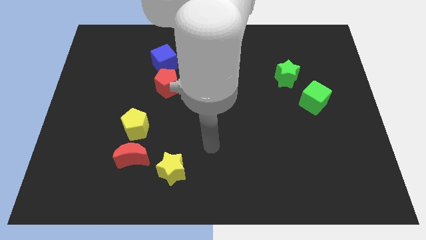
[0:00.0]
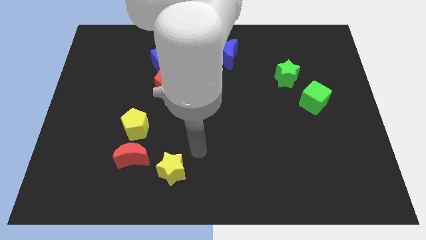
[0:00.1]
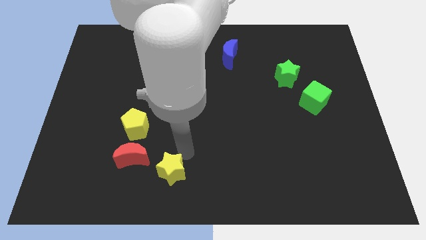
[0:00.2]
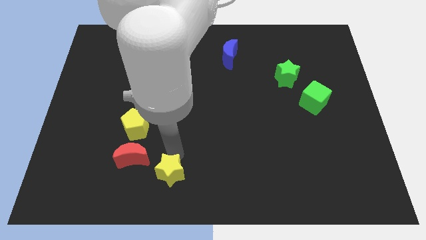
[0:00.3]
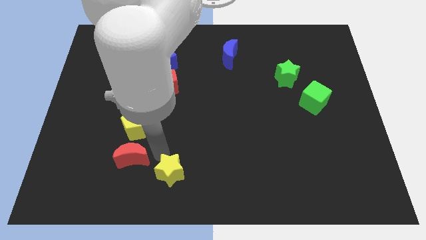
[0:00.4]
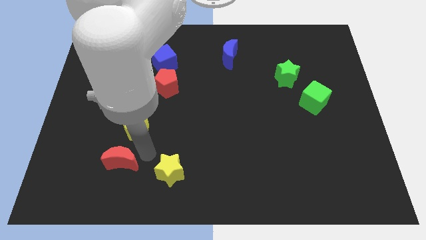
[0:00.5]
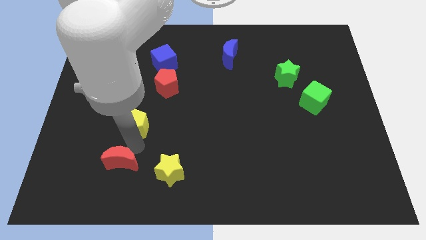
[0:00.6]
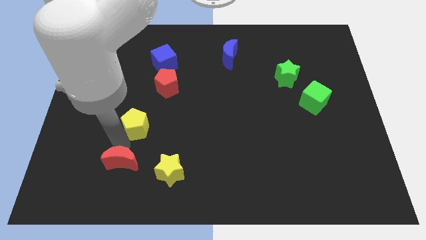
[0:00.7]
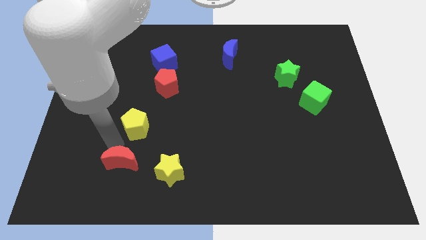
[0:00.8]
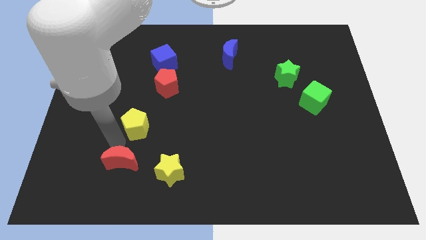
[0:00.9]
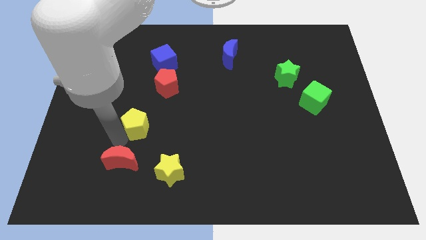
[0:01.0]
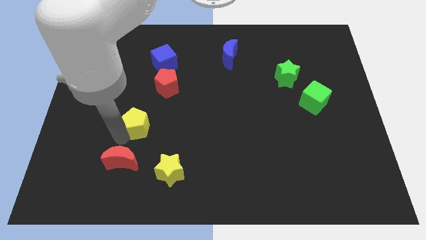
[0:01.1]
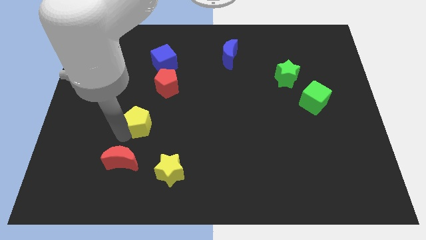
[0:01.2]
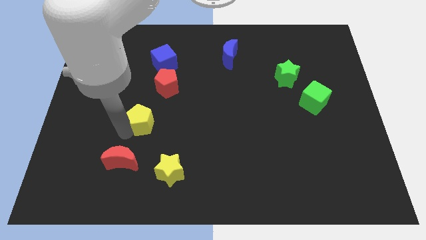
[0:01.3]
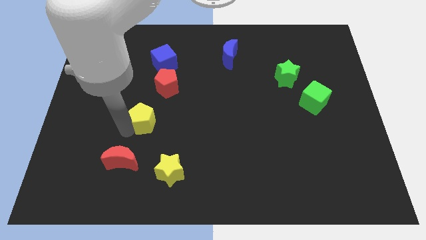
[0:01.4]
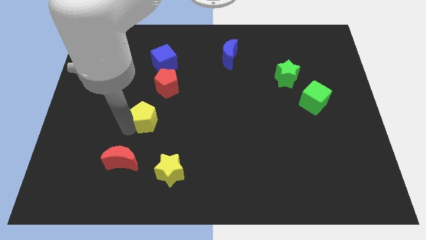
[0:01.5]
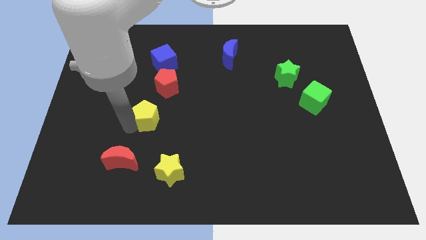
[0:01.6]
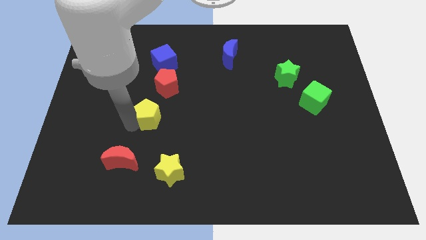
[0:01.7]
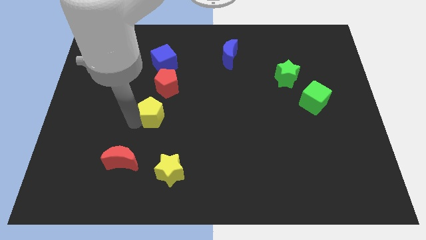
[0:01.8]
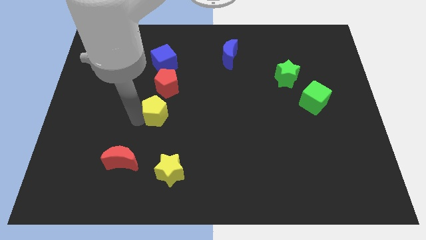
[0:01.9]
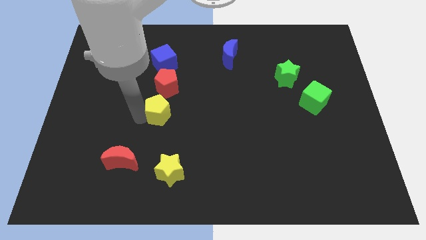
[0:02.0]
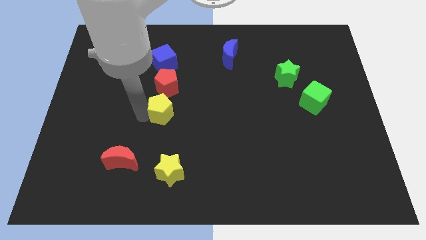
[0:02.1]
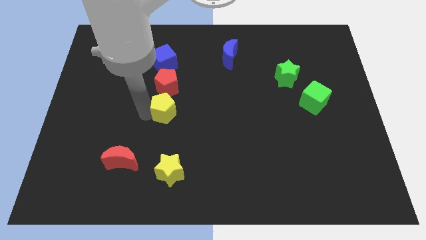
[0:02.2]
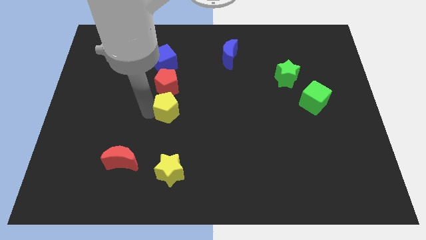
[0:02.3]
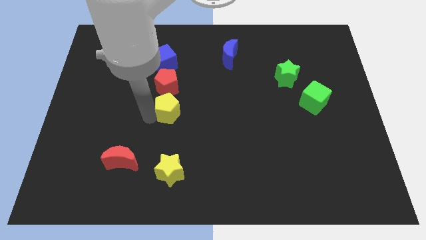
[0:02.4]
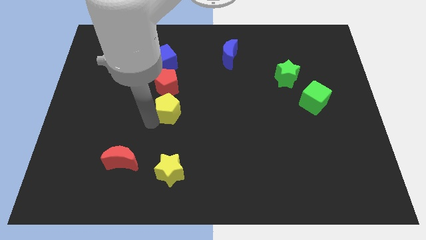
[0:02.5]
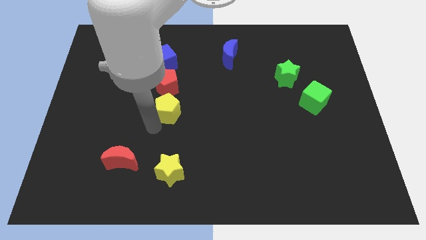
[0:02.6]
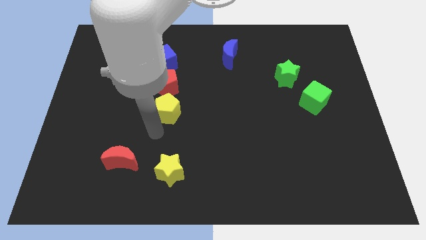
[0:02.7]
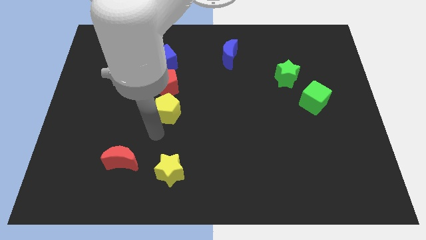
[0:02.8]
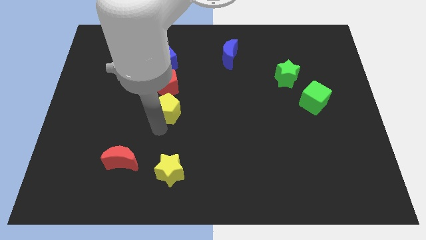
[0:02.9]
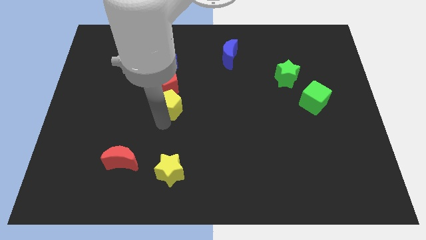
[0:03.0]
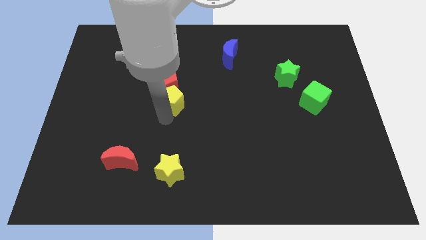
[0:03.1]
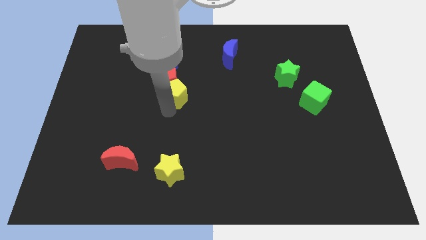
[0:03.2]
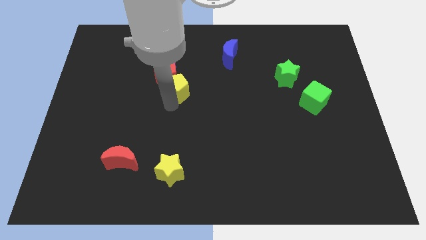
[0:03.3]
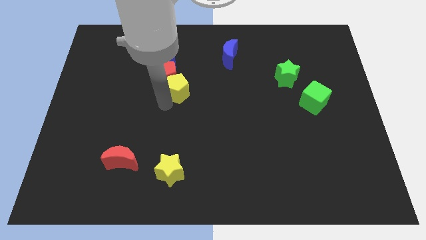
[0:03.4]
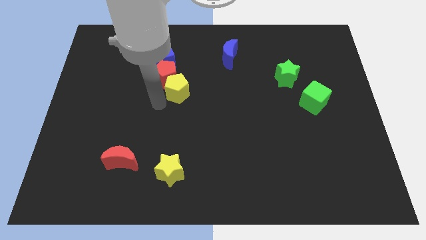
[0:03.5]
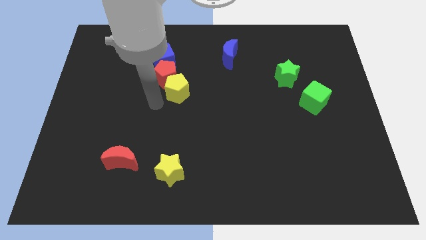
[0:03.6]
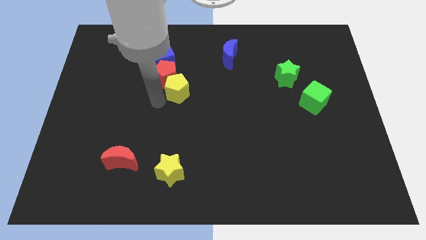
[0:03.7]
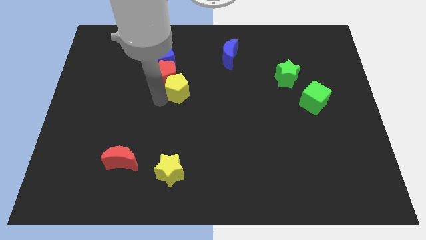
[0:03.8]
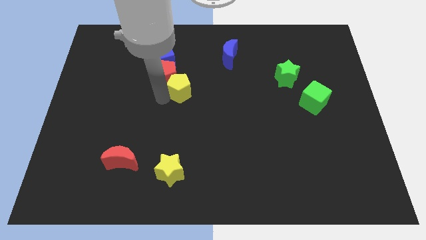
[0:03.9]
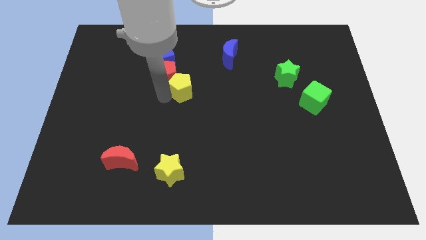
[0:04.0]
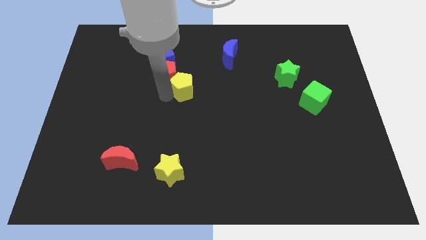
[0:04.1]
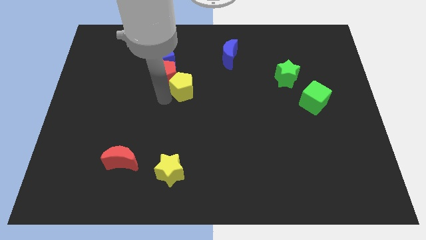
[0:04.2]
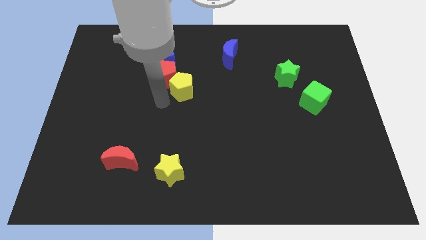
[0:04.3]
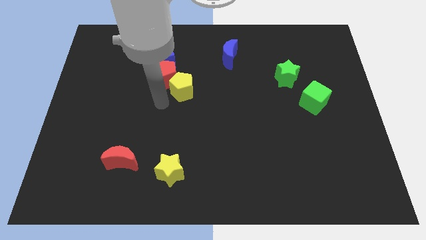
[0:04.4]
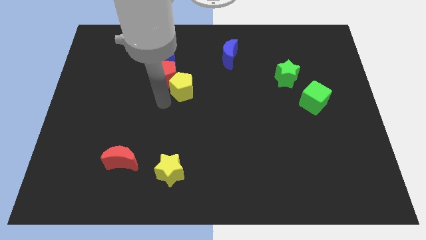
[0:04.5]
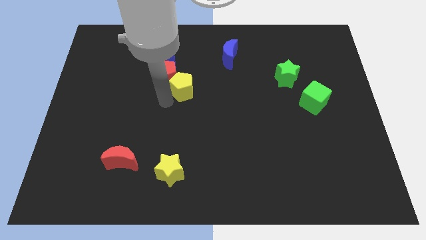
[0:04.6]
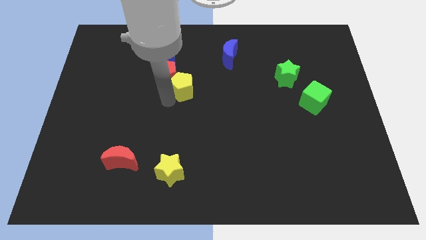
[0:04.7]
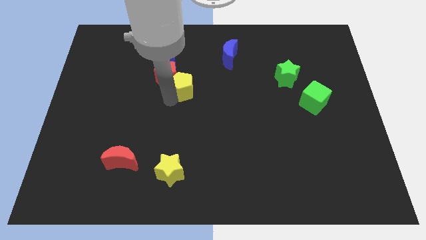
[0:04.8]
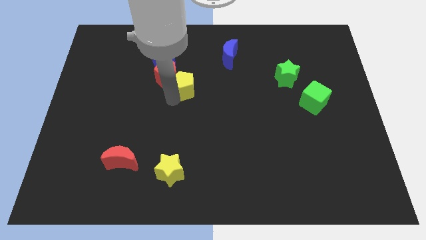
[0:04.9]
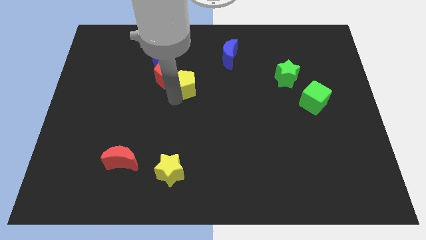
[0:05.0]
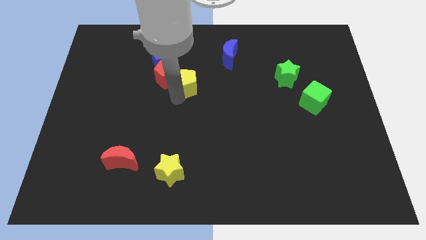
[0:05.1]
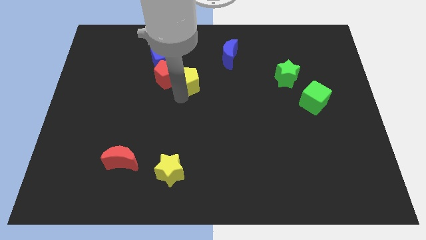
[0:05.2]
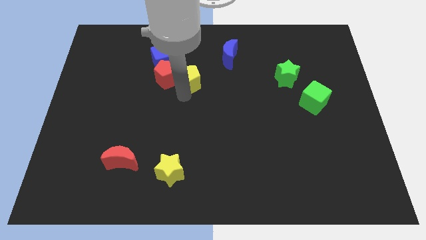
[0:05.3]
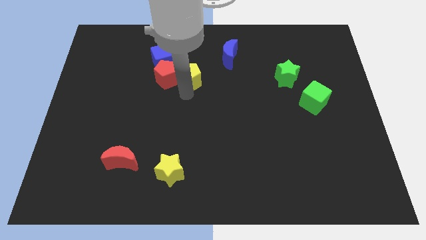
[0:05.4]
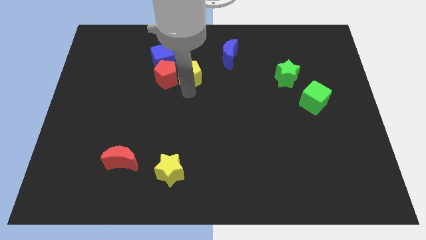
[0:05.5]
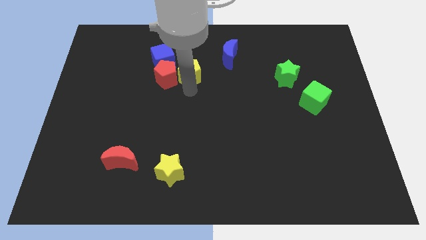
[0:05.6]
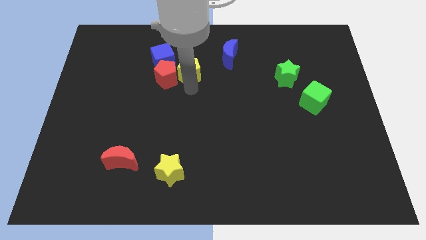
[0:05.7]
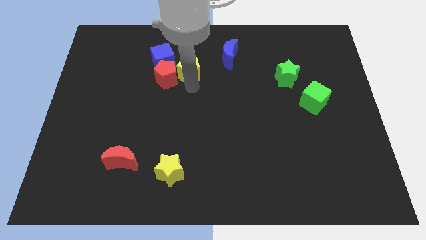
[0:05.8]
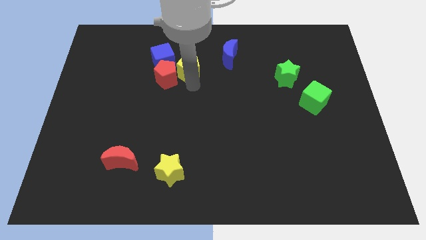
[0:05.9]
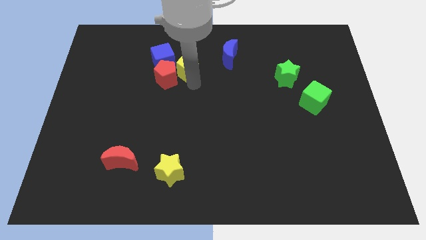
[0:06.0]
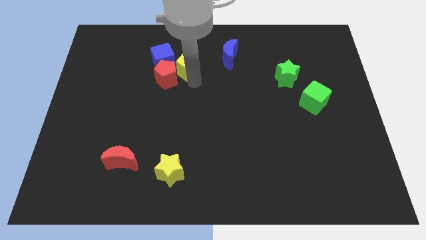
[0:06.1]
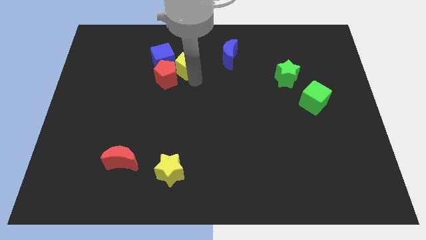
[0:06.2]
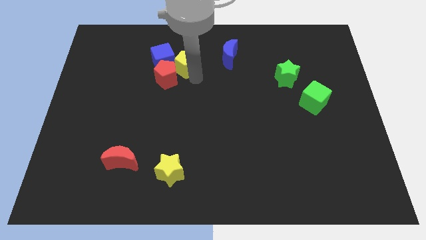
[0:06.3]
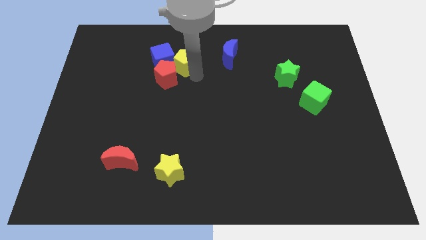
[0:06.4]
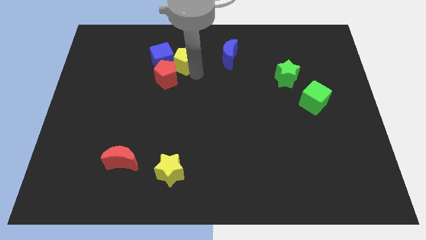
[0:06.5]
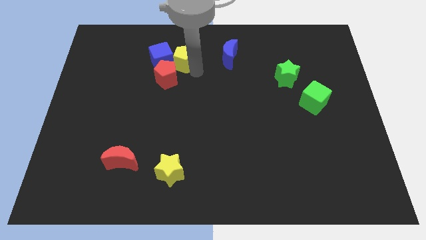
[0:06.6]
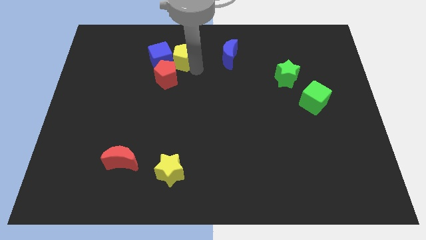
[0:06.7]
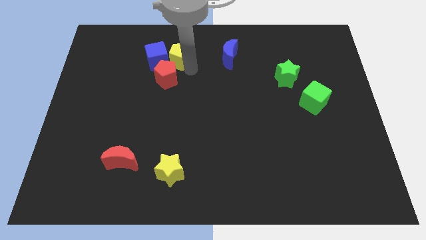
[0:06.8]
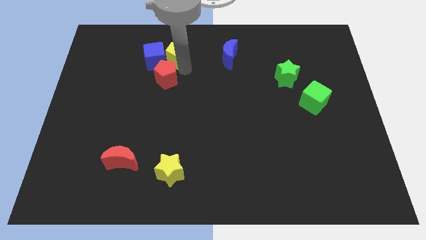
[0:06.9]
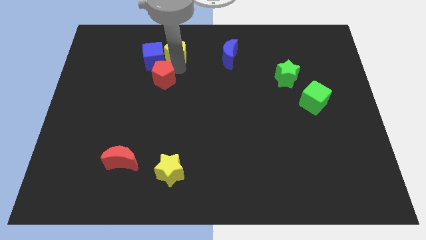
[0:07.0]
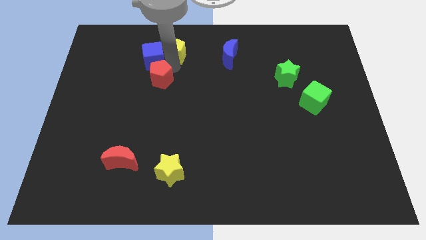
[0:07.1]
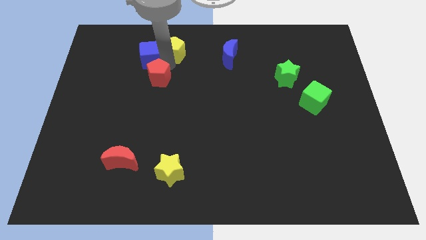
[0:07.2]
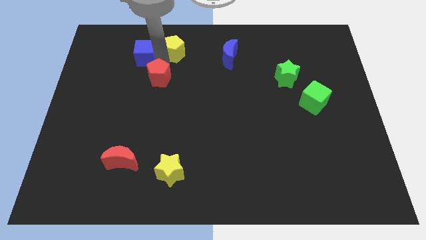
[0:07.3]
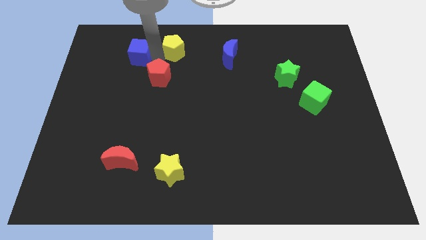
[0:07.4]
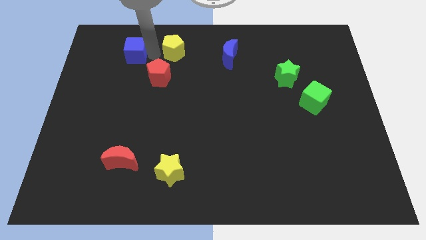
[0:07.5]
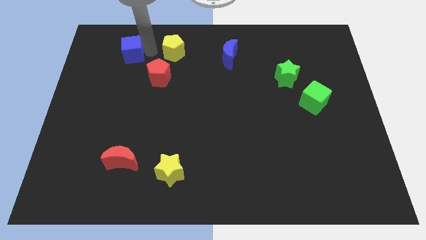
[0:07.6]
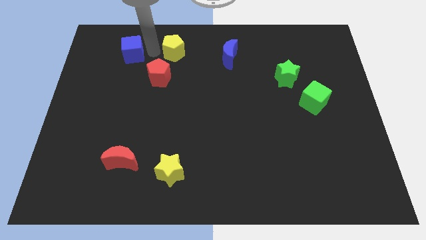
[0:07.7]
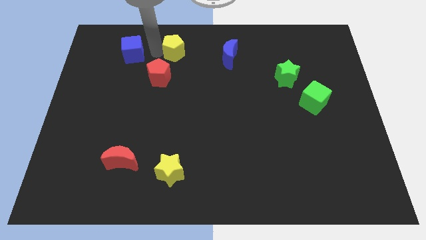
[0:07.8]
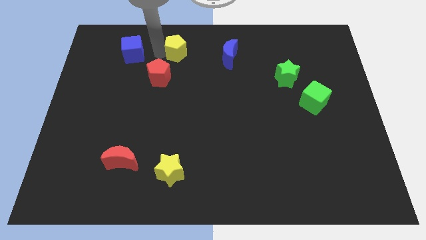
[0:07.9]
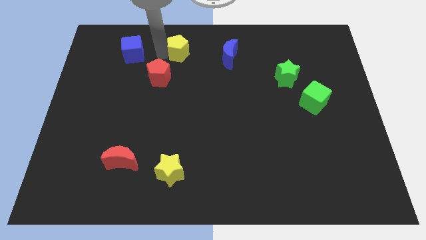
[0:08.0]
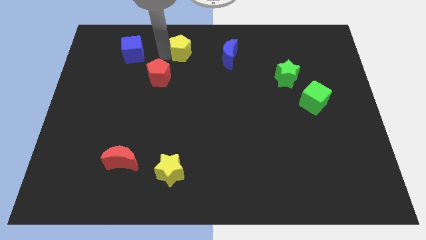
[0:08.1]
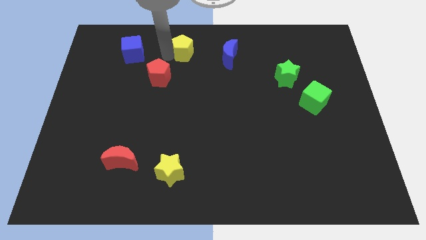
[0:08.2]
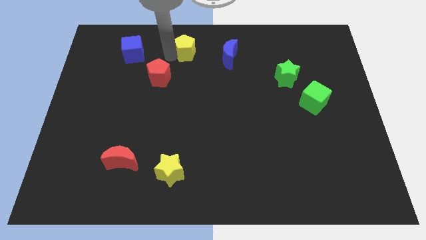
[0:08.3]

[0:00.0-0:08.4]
slide the yellow pentagon to the towards your base
